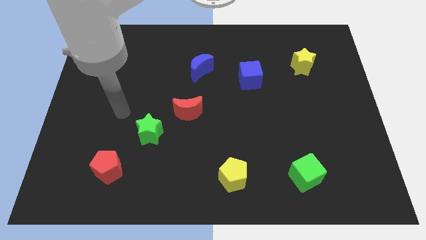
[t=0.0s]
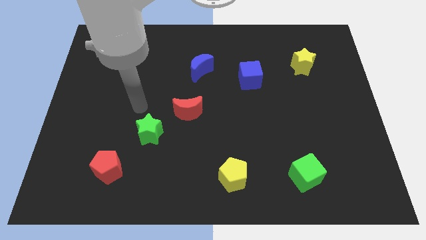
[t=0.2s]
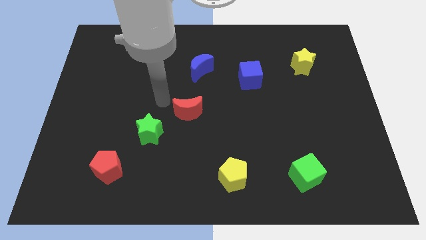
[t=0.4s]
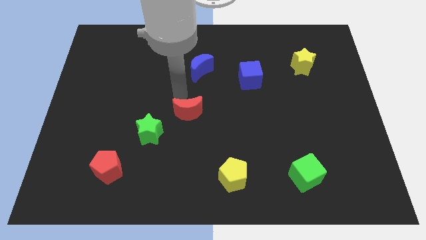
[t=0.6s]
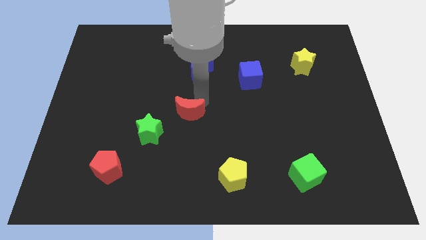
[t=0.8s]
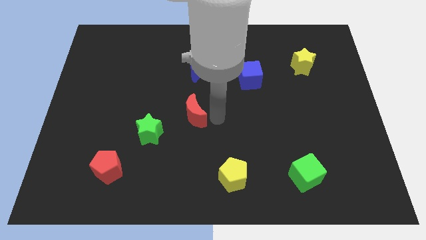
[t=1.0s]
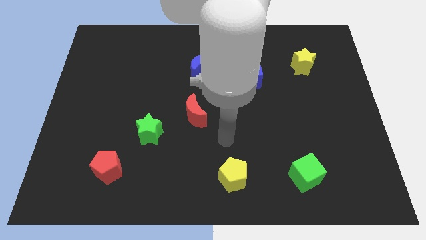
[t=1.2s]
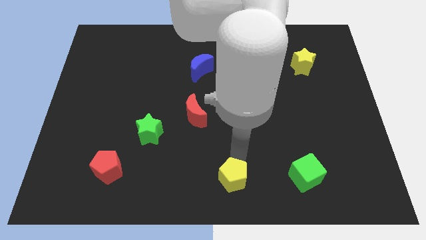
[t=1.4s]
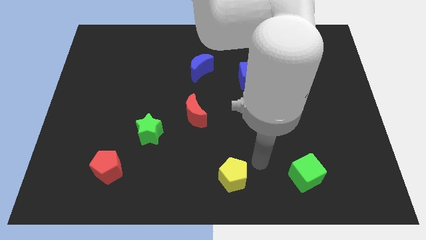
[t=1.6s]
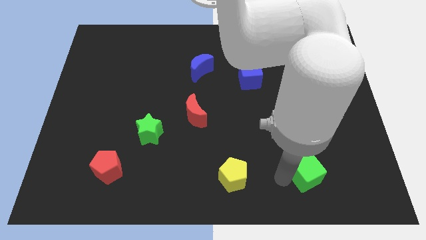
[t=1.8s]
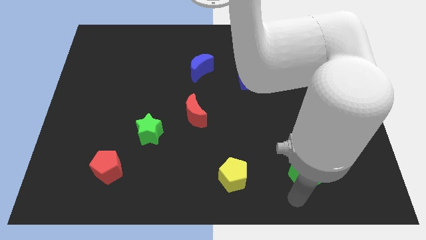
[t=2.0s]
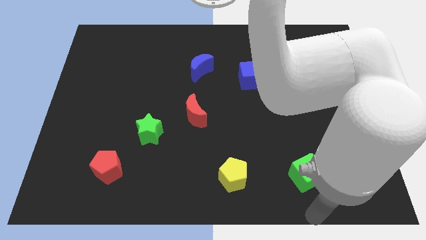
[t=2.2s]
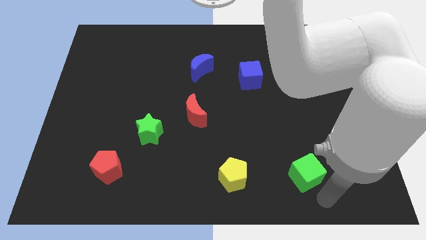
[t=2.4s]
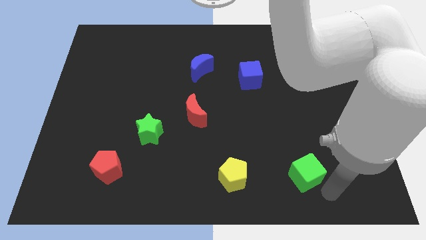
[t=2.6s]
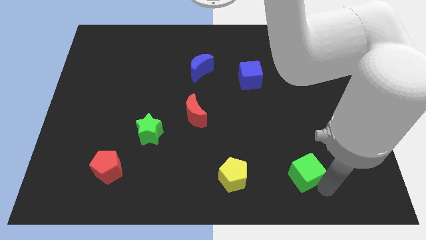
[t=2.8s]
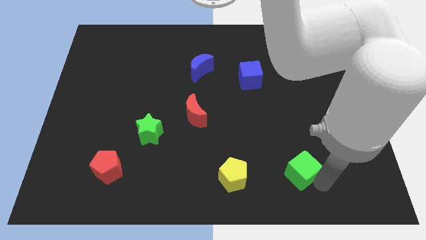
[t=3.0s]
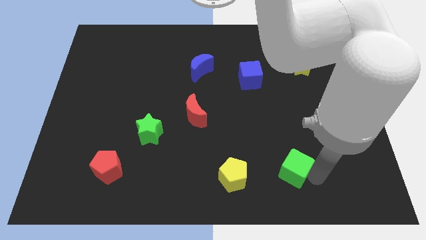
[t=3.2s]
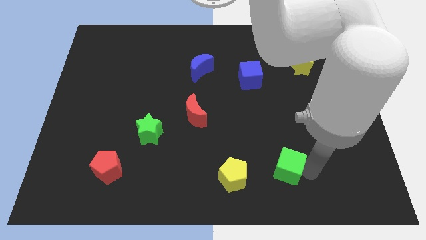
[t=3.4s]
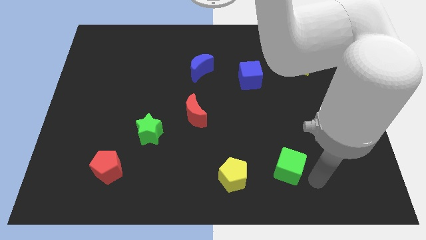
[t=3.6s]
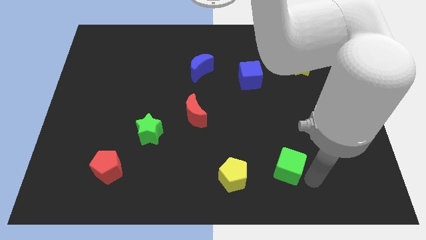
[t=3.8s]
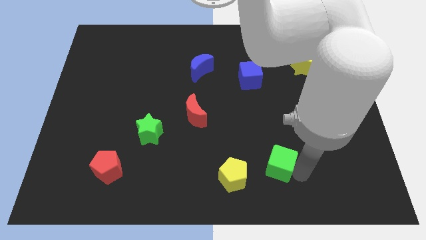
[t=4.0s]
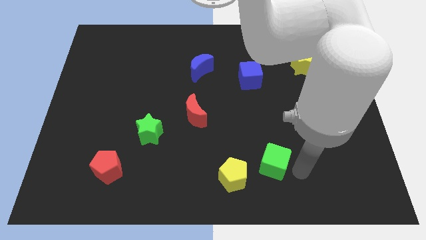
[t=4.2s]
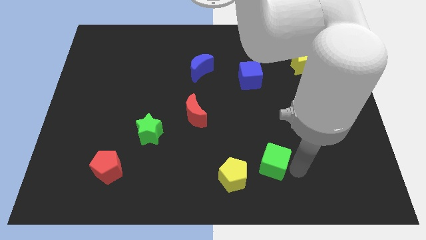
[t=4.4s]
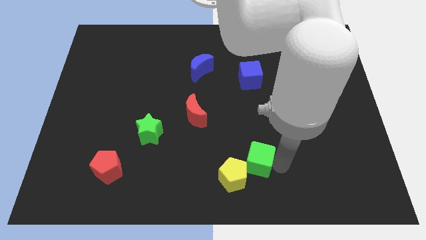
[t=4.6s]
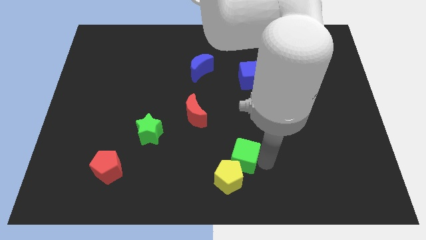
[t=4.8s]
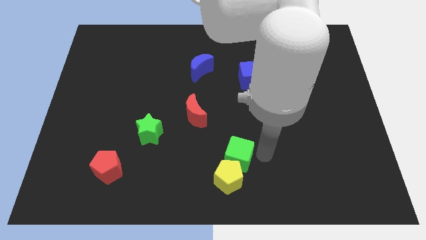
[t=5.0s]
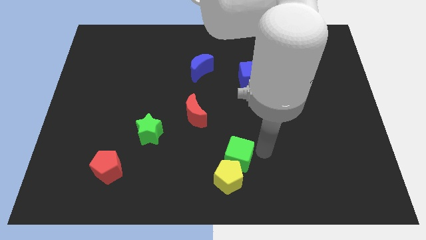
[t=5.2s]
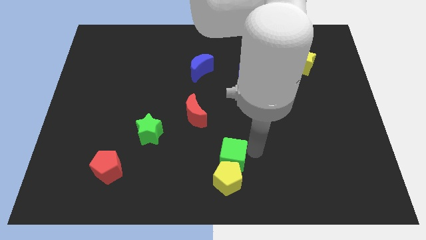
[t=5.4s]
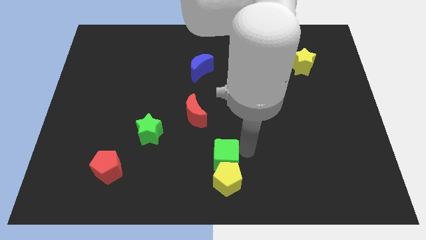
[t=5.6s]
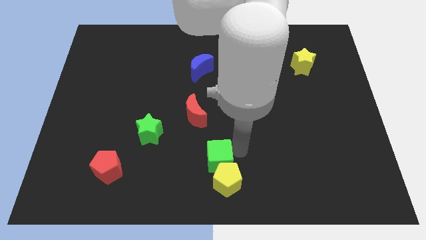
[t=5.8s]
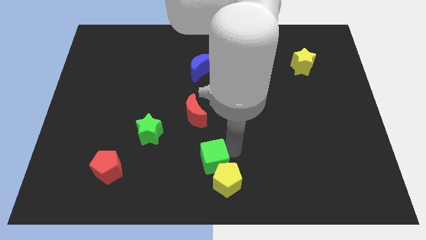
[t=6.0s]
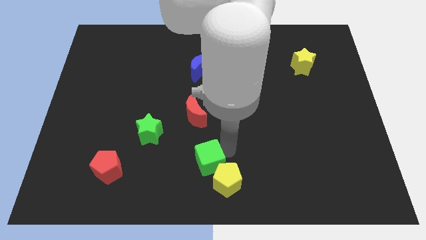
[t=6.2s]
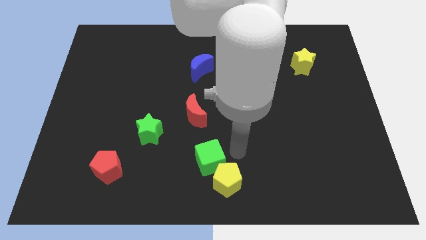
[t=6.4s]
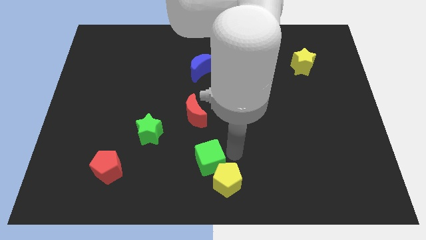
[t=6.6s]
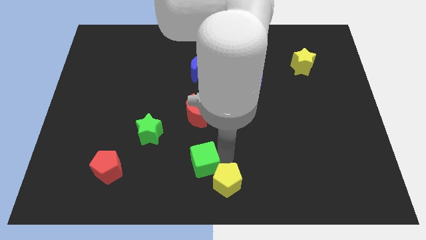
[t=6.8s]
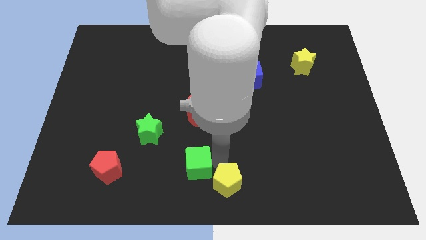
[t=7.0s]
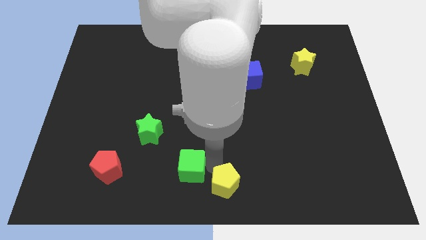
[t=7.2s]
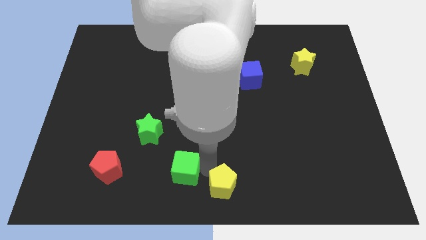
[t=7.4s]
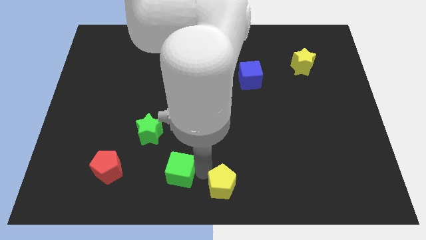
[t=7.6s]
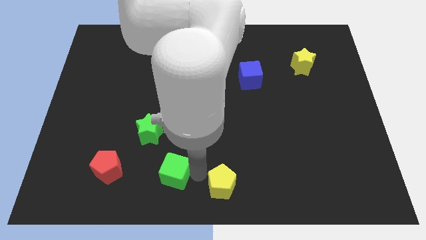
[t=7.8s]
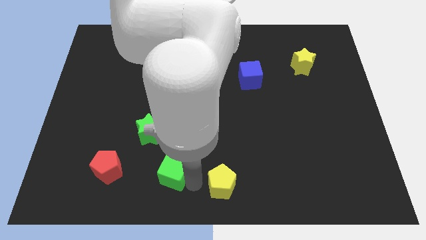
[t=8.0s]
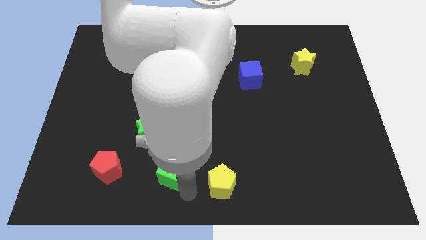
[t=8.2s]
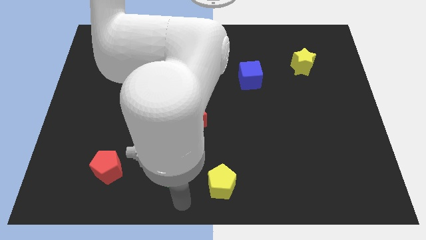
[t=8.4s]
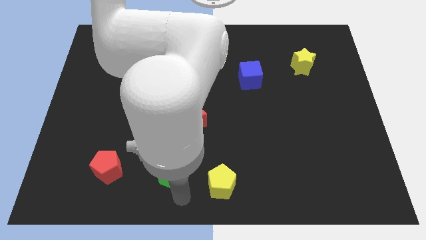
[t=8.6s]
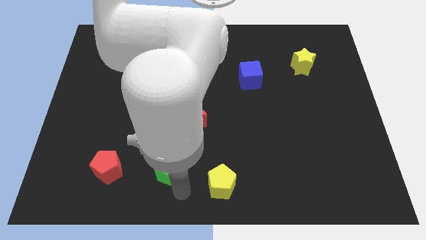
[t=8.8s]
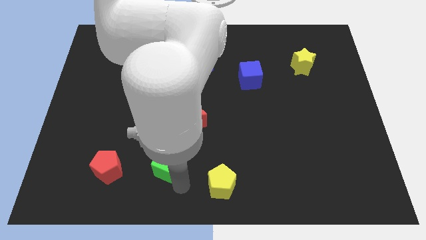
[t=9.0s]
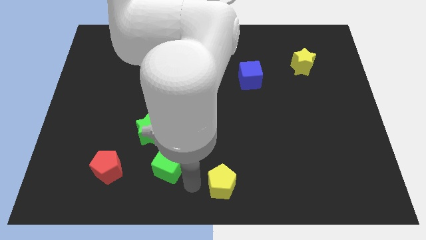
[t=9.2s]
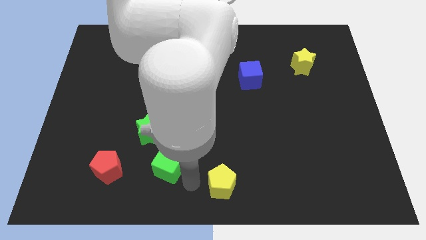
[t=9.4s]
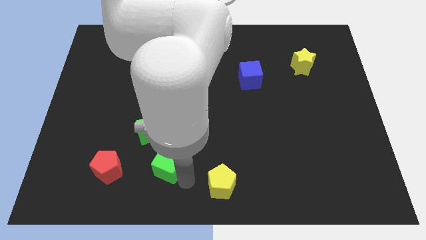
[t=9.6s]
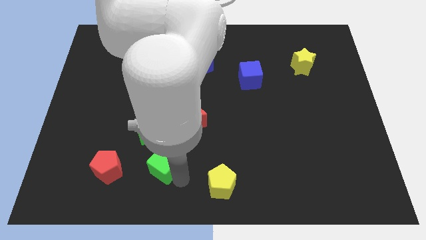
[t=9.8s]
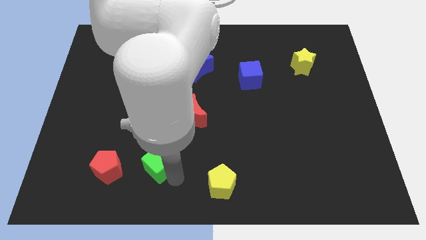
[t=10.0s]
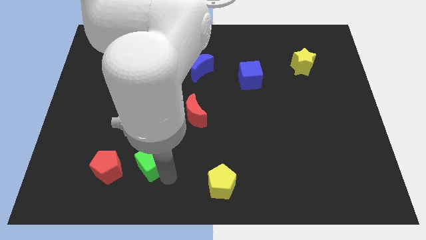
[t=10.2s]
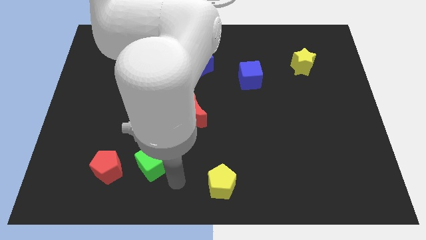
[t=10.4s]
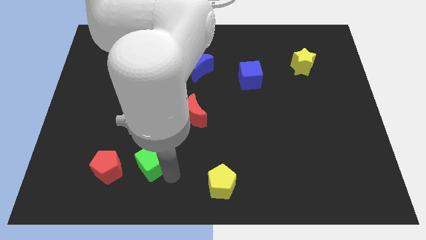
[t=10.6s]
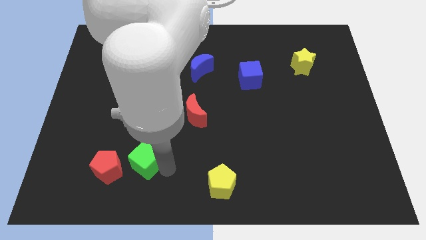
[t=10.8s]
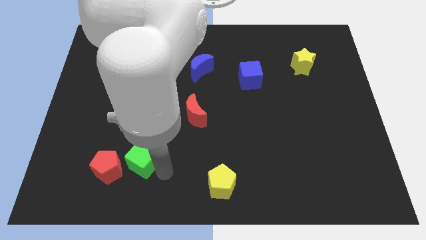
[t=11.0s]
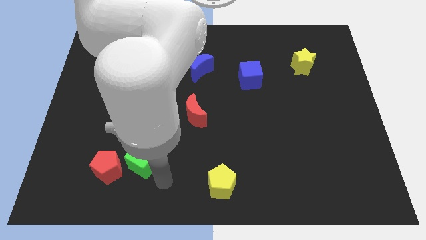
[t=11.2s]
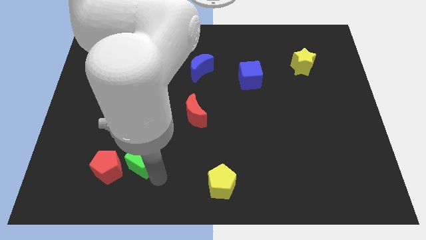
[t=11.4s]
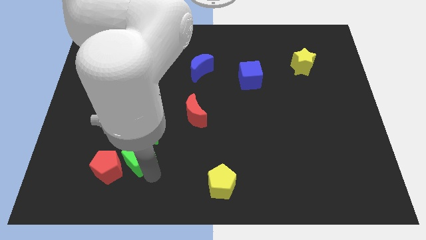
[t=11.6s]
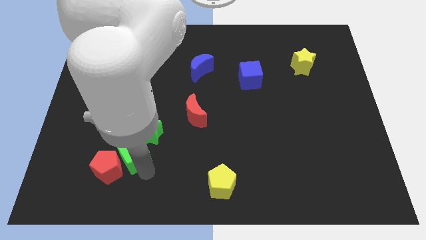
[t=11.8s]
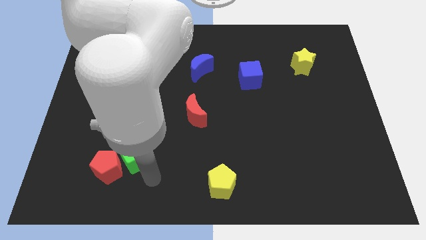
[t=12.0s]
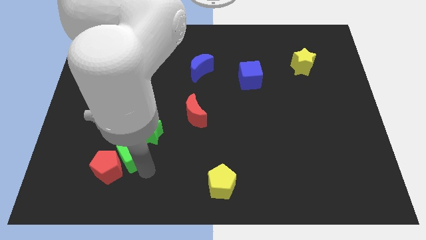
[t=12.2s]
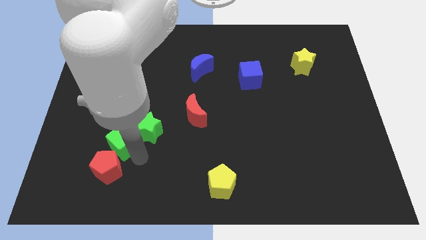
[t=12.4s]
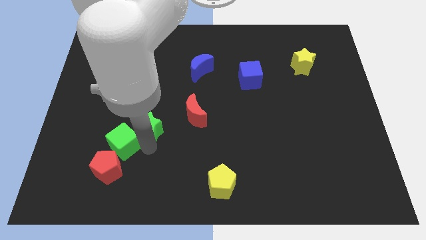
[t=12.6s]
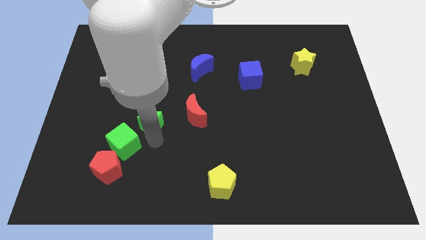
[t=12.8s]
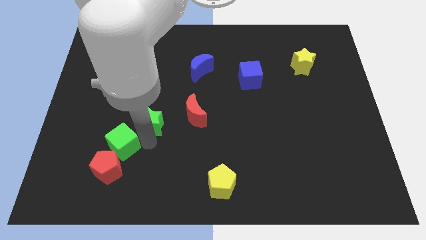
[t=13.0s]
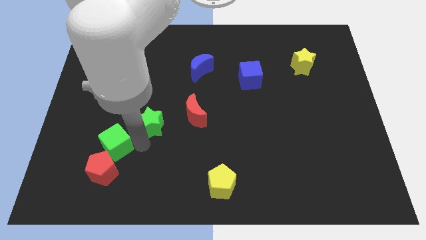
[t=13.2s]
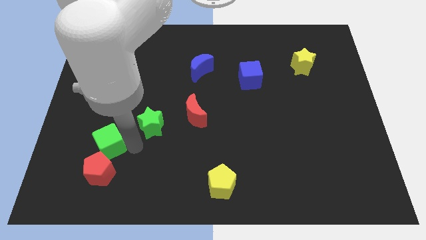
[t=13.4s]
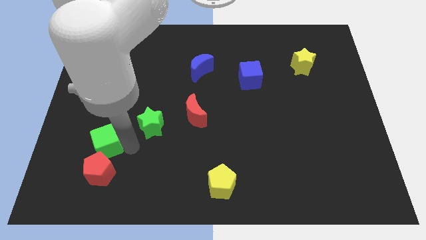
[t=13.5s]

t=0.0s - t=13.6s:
put the green cube to the top left of the red pentagon

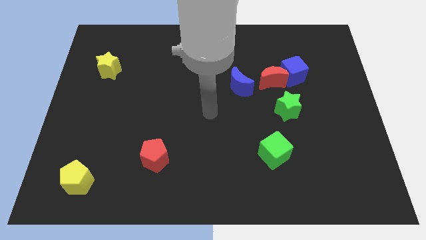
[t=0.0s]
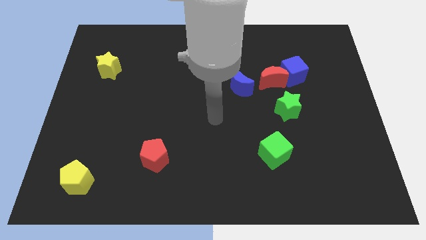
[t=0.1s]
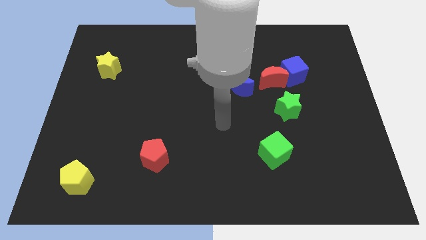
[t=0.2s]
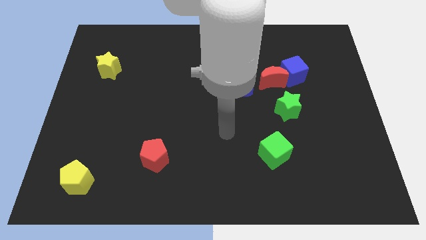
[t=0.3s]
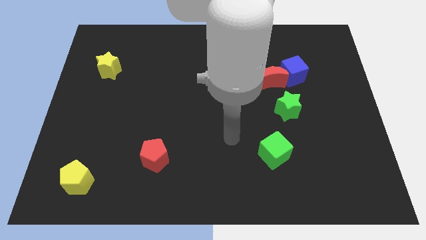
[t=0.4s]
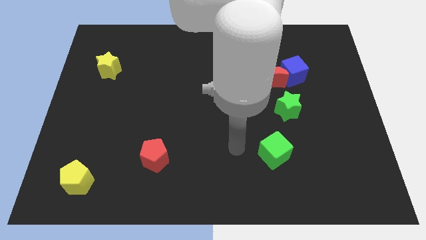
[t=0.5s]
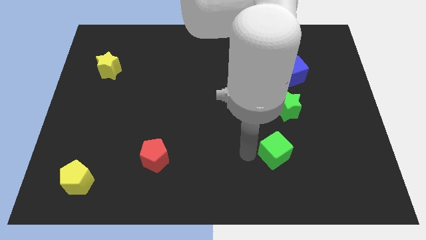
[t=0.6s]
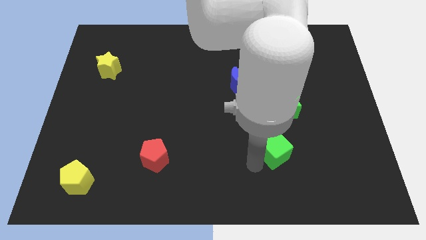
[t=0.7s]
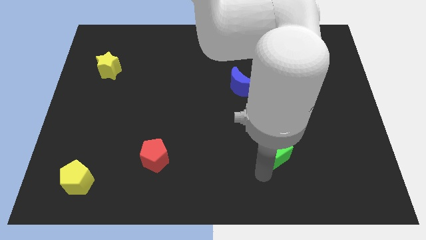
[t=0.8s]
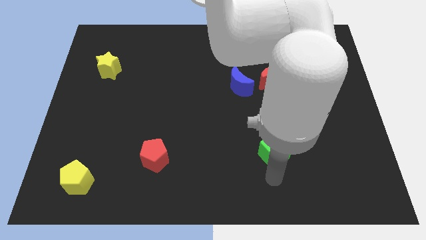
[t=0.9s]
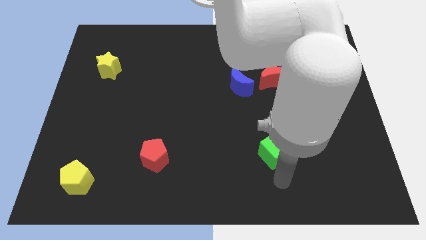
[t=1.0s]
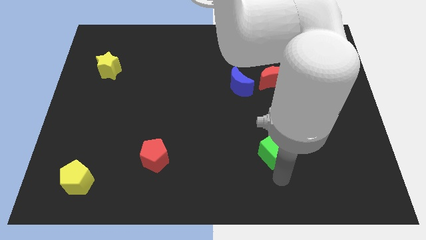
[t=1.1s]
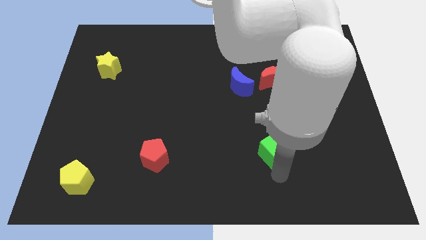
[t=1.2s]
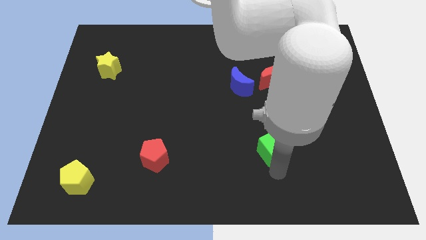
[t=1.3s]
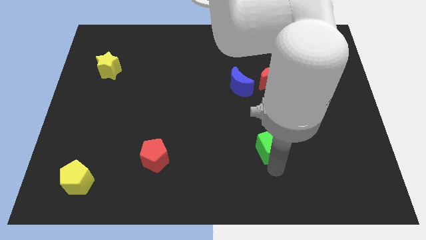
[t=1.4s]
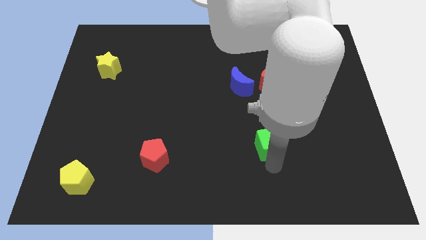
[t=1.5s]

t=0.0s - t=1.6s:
move the green cube diagonally down and to the left of the green star
